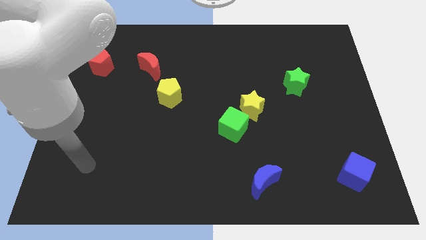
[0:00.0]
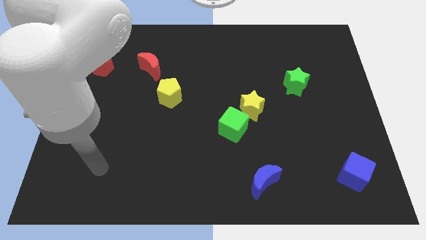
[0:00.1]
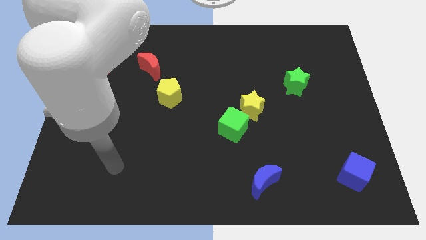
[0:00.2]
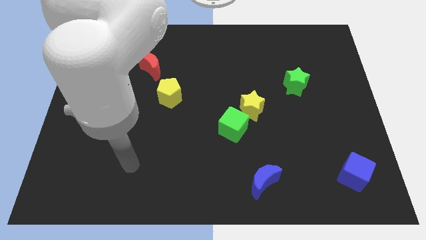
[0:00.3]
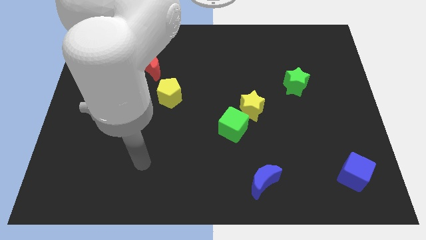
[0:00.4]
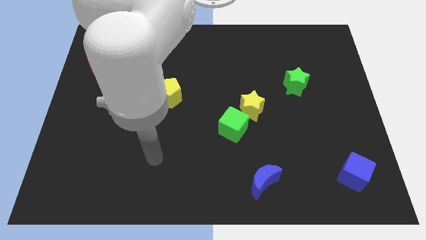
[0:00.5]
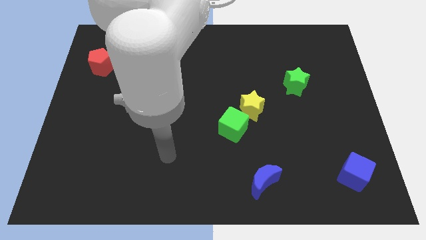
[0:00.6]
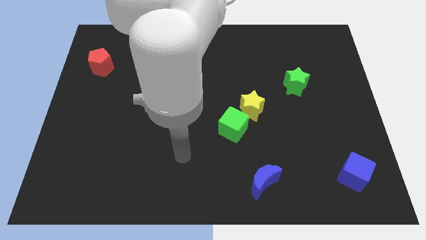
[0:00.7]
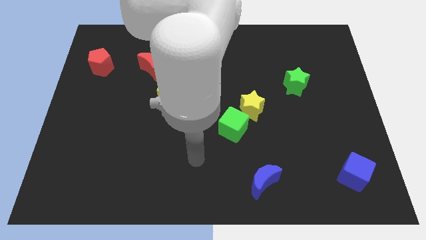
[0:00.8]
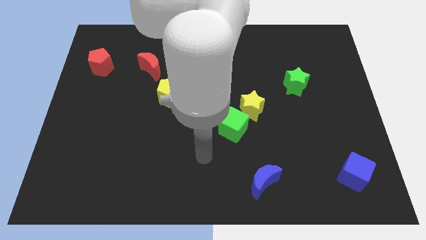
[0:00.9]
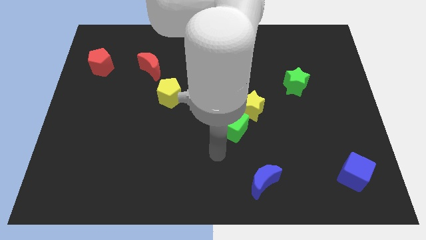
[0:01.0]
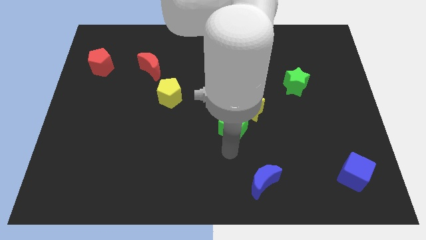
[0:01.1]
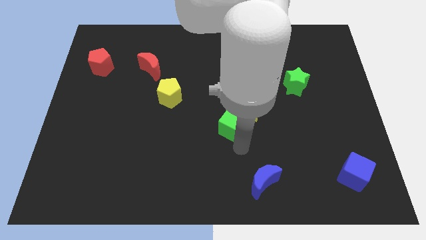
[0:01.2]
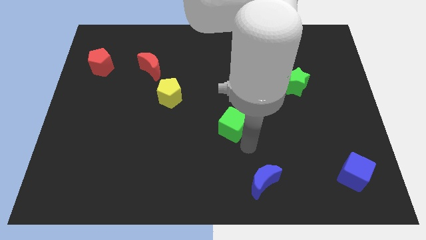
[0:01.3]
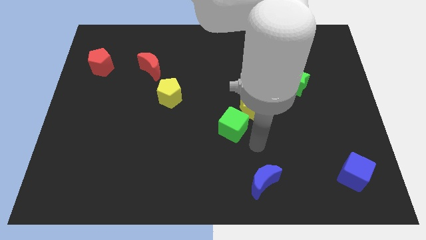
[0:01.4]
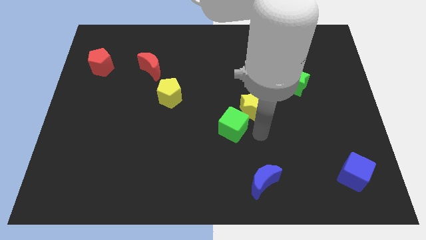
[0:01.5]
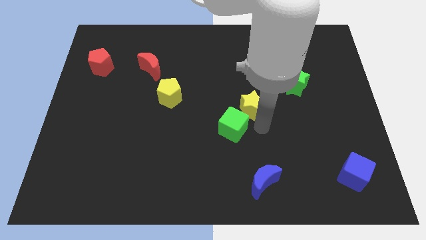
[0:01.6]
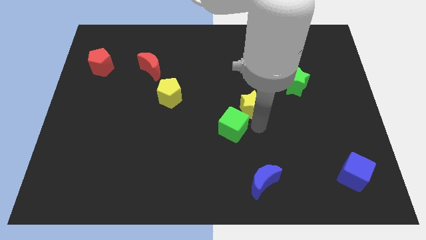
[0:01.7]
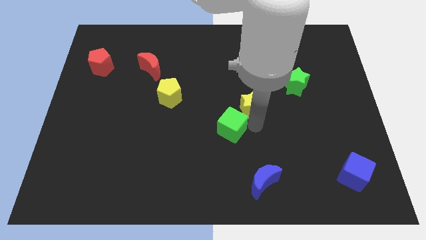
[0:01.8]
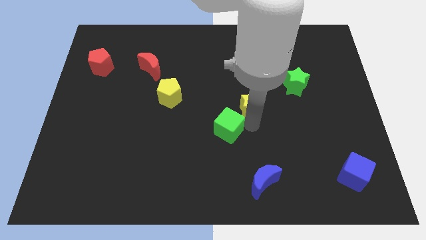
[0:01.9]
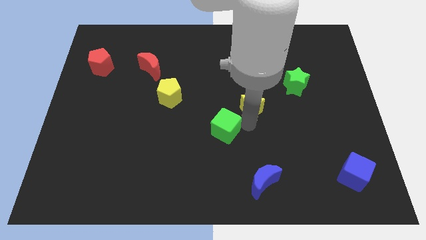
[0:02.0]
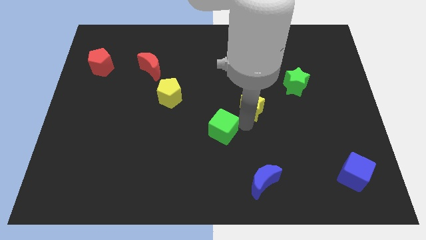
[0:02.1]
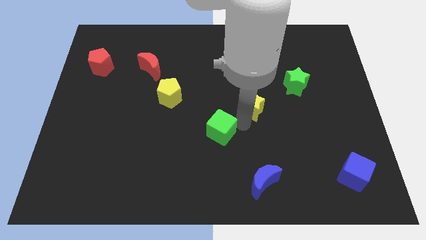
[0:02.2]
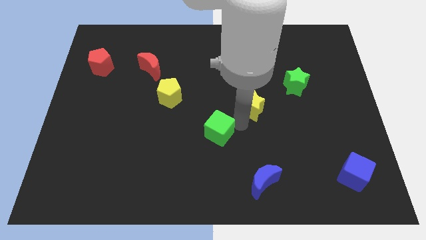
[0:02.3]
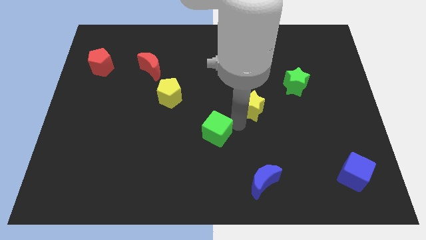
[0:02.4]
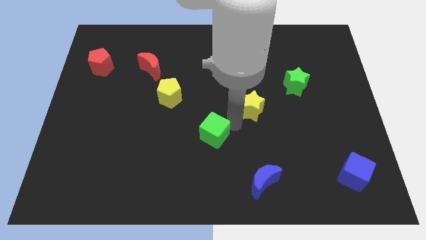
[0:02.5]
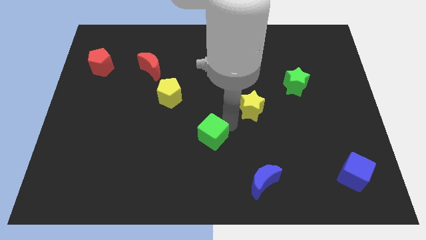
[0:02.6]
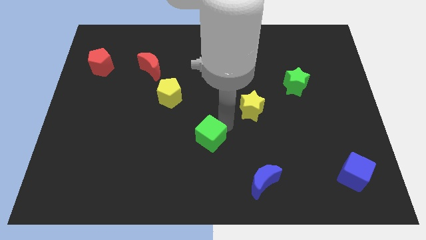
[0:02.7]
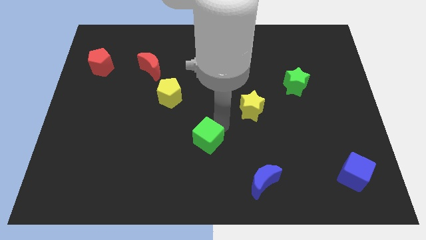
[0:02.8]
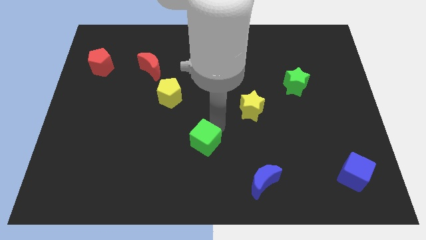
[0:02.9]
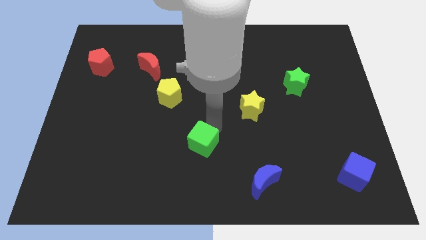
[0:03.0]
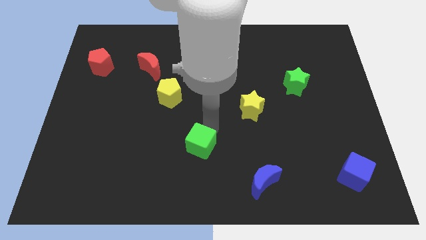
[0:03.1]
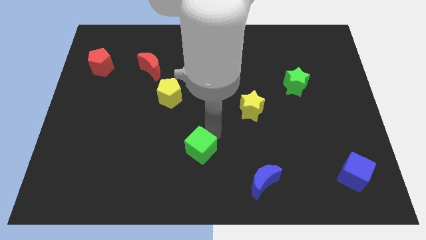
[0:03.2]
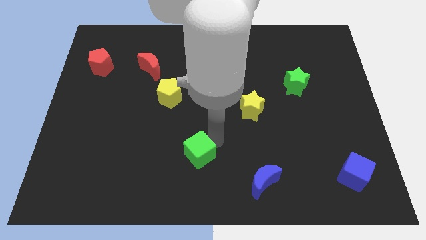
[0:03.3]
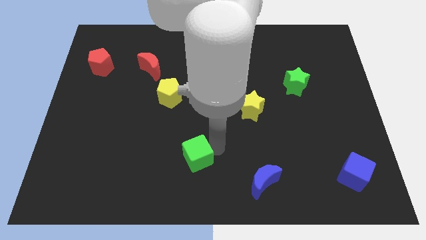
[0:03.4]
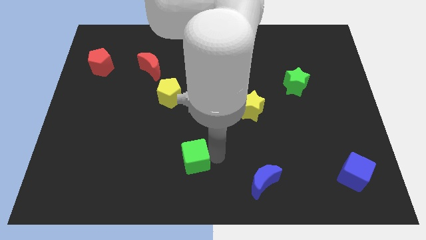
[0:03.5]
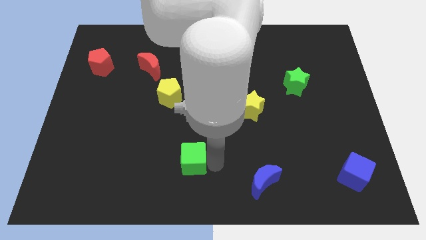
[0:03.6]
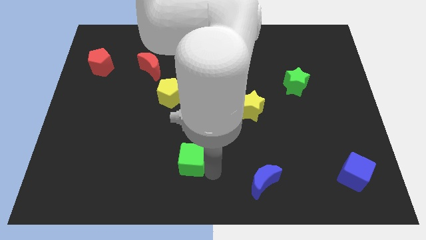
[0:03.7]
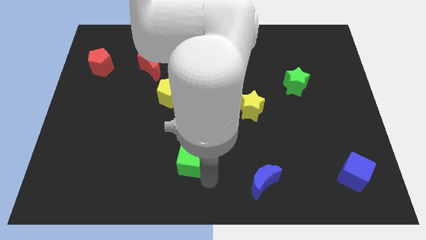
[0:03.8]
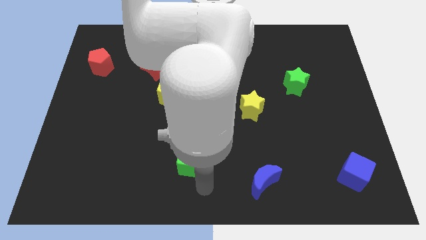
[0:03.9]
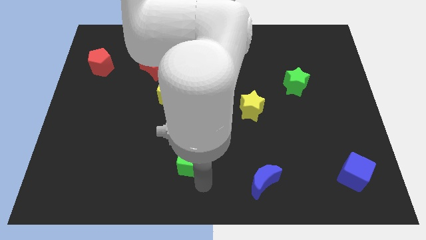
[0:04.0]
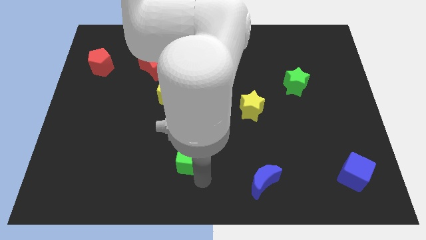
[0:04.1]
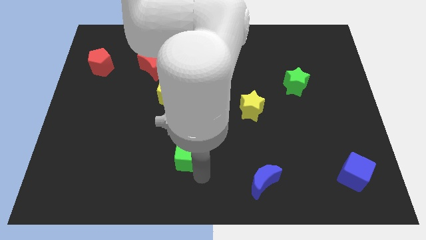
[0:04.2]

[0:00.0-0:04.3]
slide the green cube left slightly

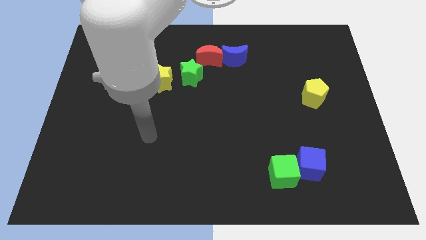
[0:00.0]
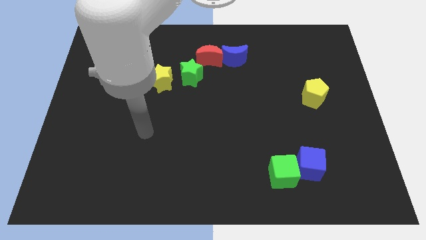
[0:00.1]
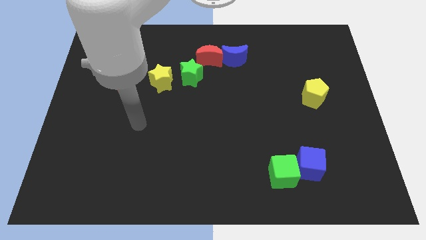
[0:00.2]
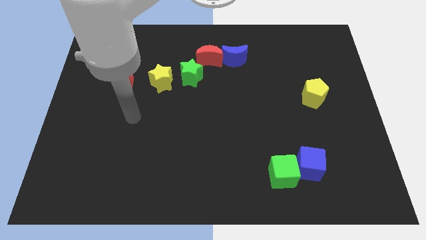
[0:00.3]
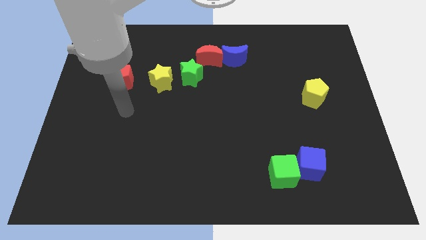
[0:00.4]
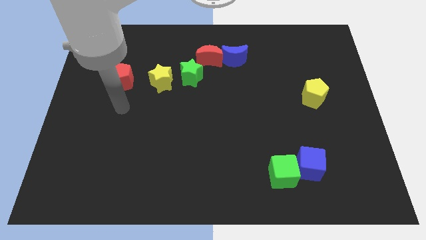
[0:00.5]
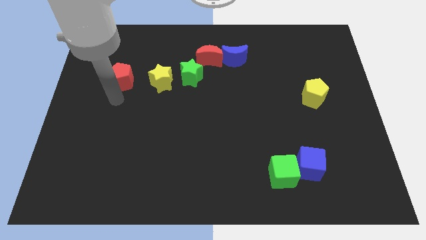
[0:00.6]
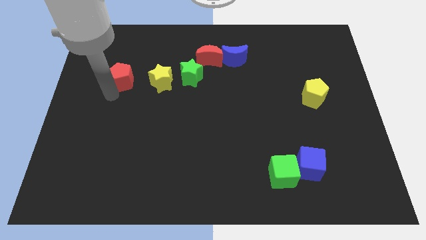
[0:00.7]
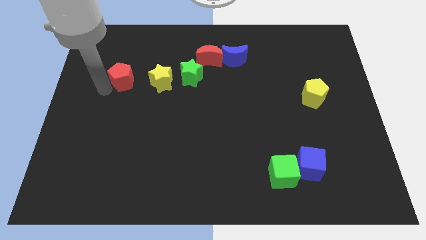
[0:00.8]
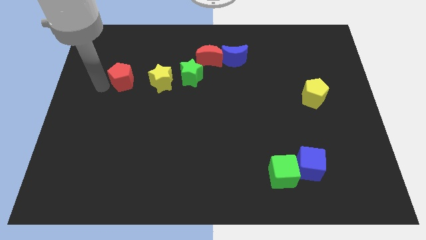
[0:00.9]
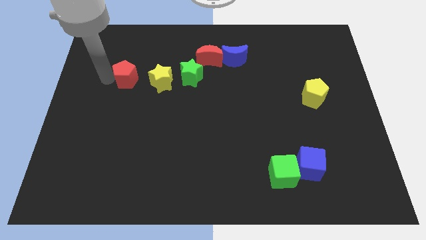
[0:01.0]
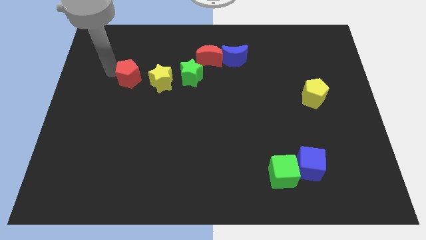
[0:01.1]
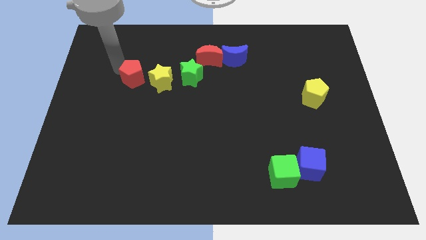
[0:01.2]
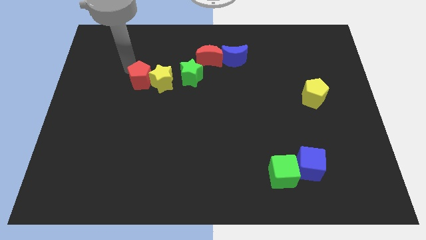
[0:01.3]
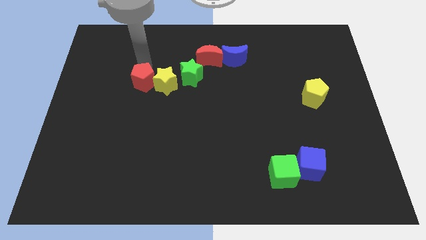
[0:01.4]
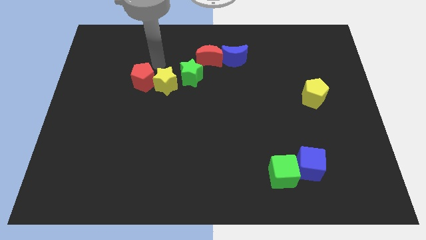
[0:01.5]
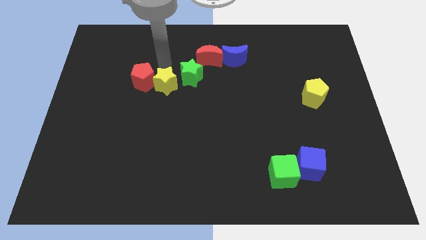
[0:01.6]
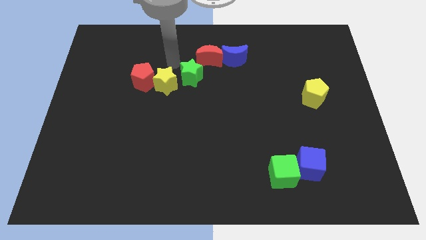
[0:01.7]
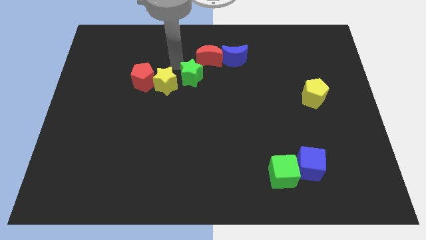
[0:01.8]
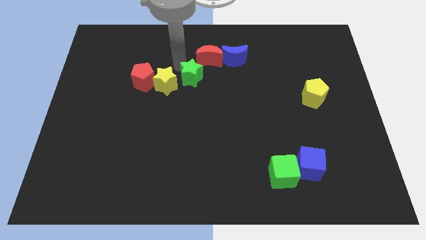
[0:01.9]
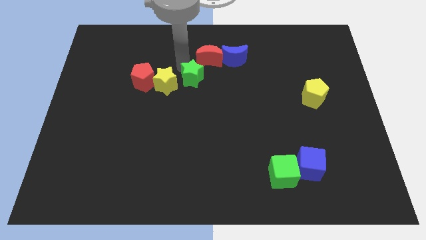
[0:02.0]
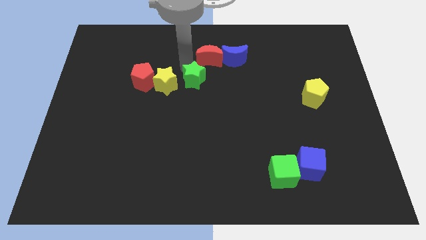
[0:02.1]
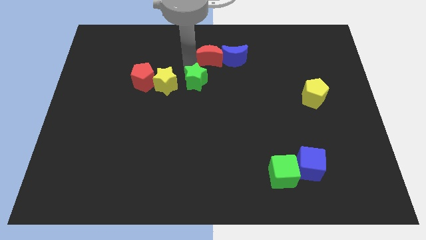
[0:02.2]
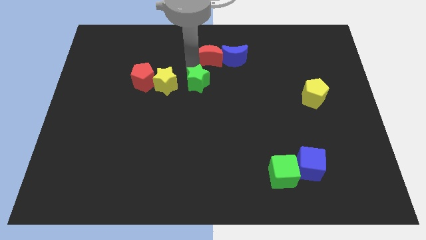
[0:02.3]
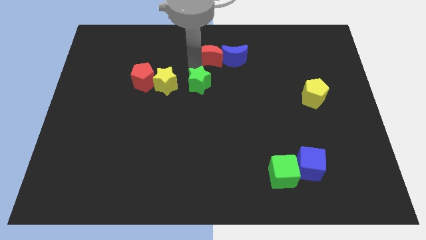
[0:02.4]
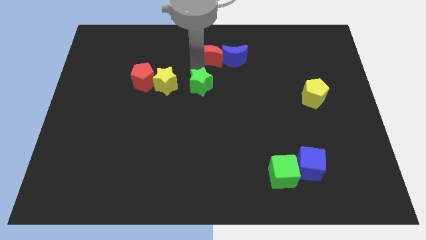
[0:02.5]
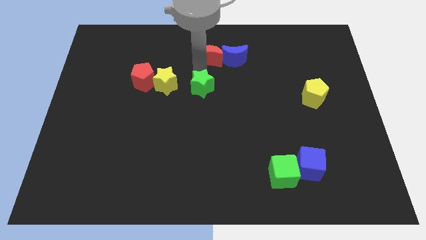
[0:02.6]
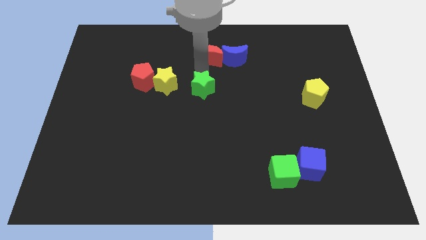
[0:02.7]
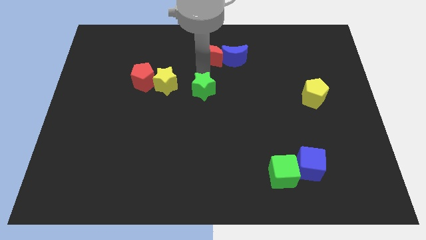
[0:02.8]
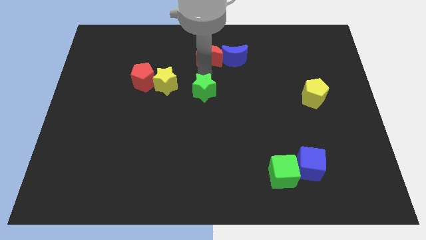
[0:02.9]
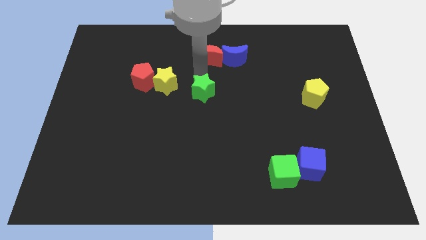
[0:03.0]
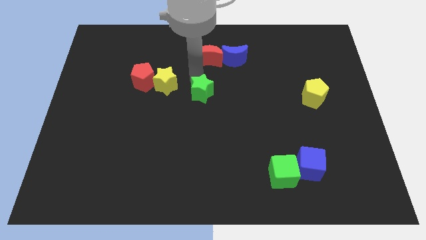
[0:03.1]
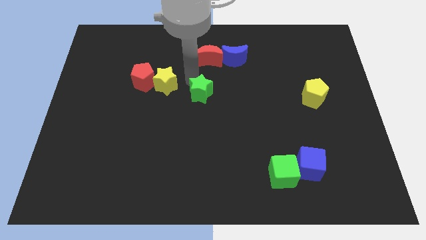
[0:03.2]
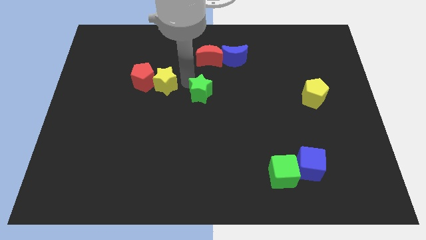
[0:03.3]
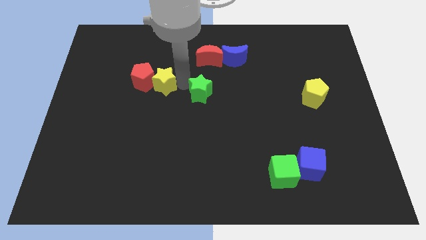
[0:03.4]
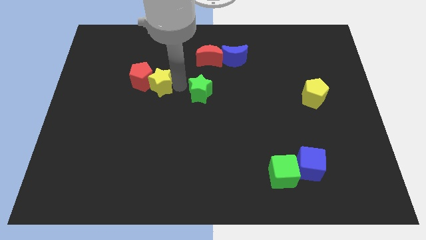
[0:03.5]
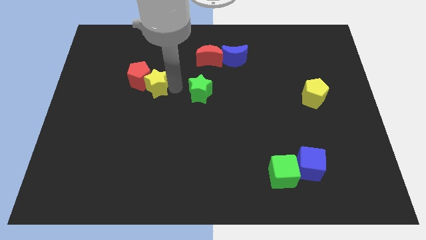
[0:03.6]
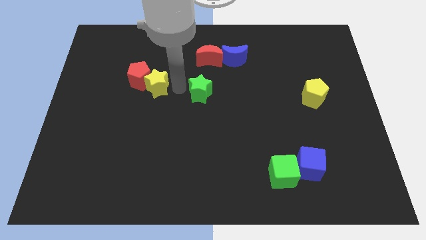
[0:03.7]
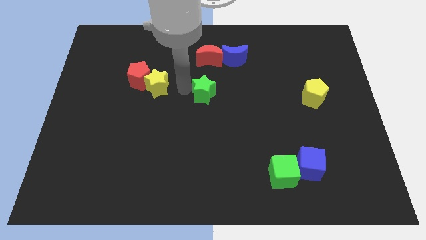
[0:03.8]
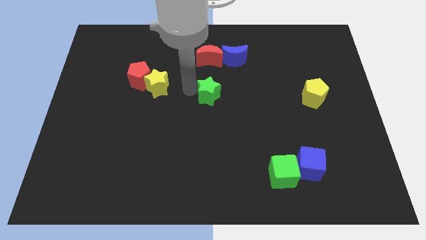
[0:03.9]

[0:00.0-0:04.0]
slide the green star a little diagonally down and to the right
